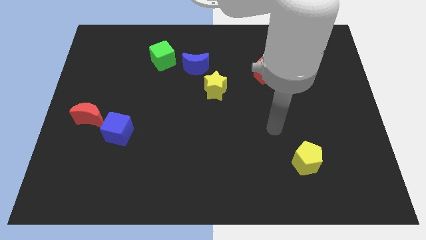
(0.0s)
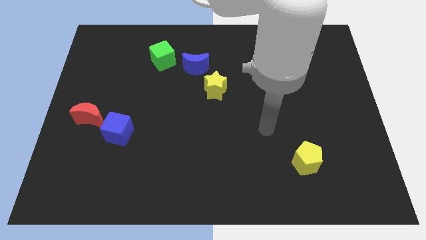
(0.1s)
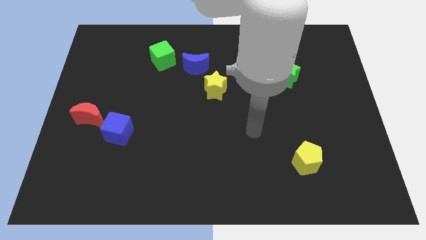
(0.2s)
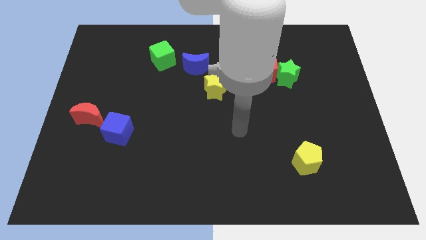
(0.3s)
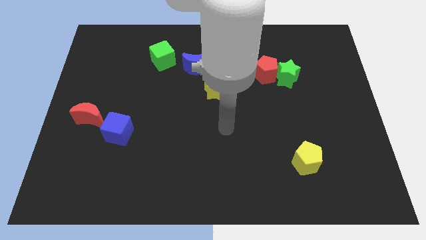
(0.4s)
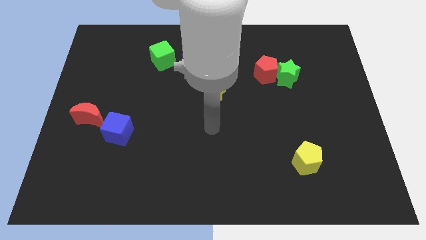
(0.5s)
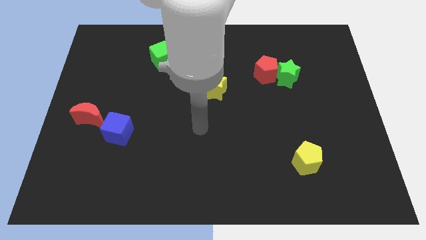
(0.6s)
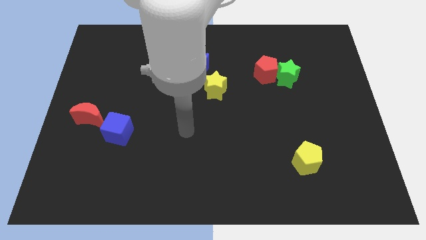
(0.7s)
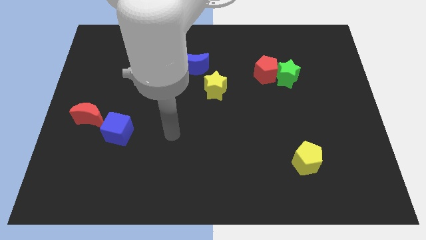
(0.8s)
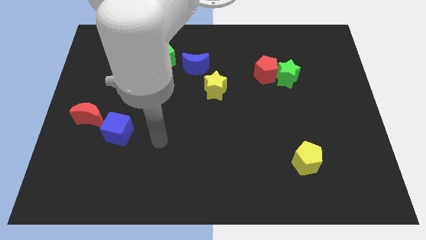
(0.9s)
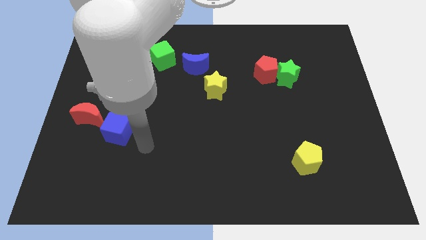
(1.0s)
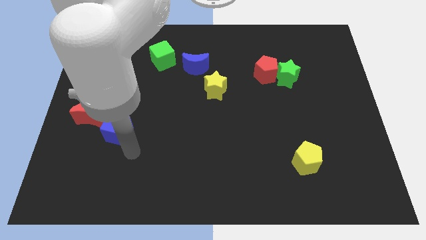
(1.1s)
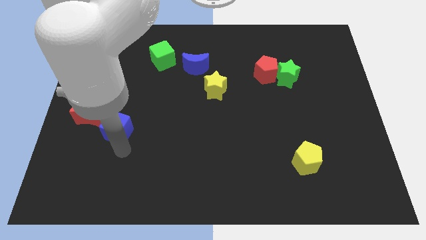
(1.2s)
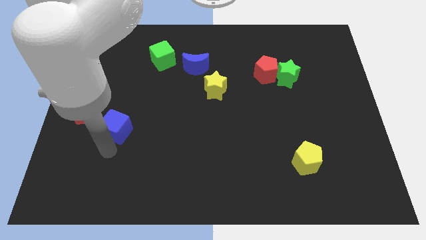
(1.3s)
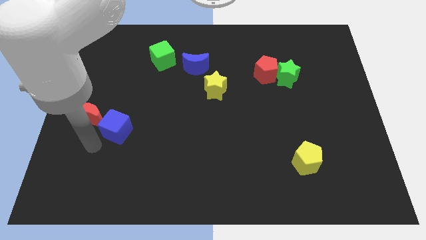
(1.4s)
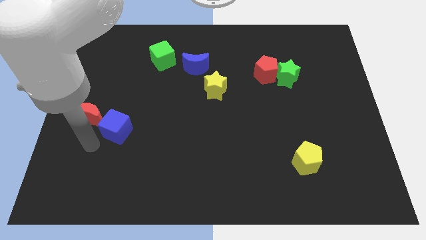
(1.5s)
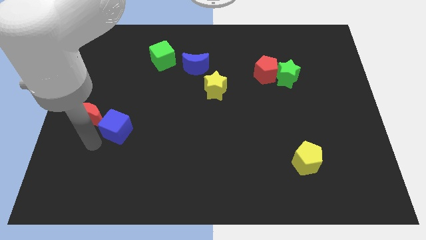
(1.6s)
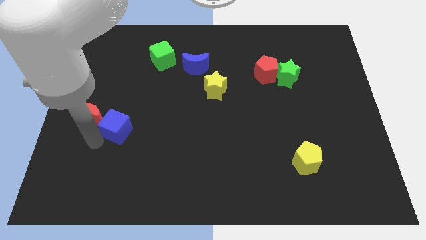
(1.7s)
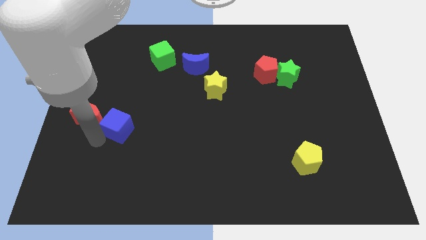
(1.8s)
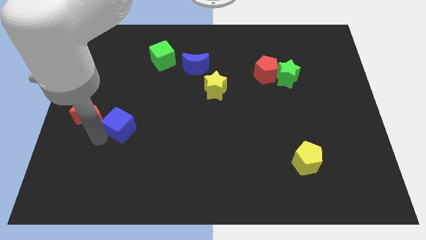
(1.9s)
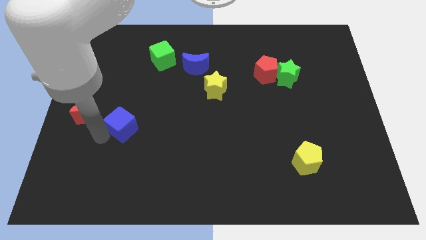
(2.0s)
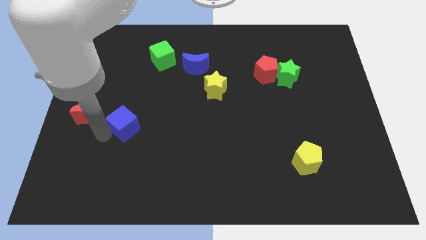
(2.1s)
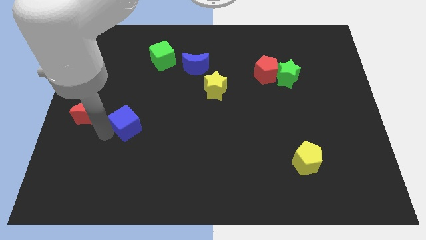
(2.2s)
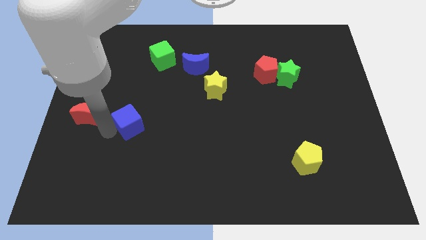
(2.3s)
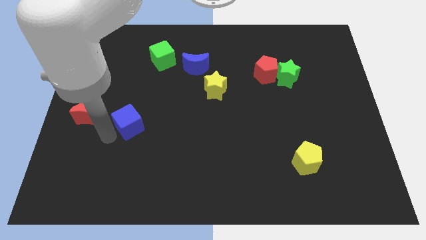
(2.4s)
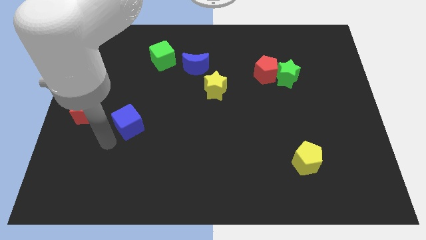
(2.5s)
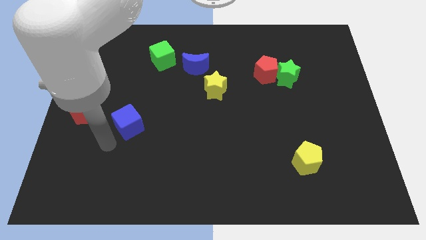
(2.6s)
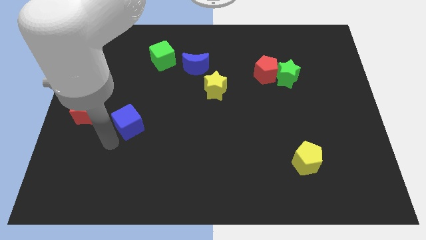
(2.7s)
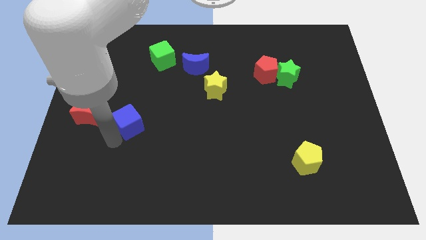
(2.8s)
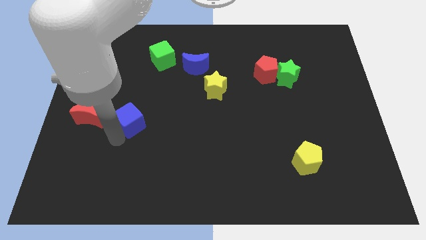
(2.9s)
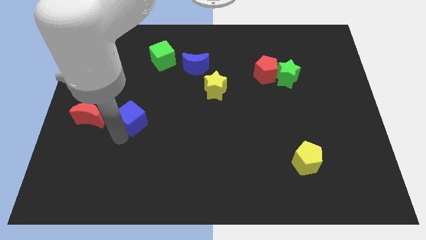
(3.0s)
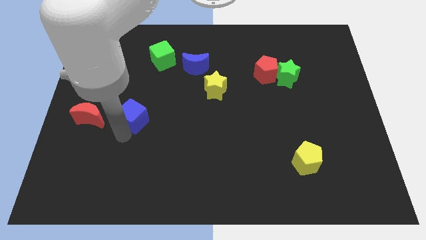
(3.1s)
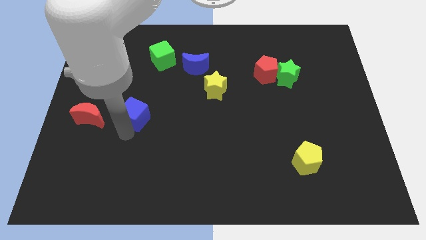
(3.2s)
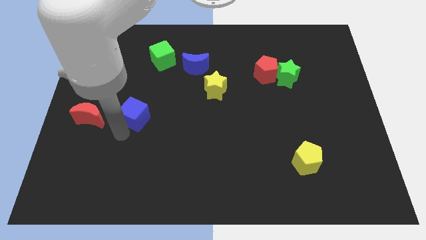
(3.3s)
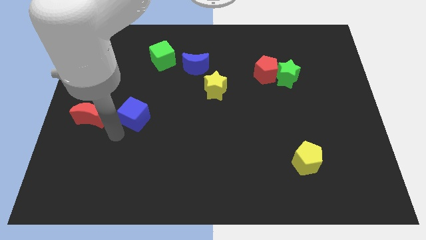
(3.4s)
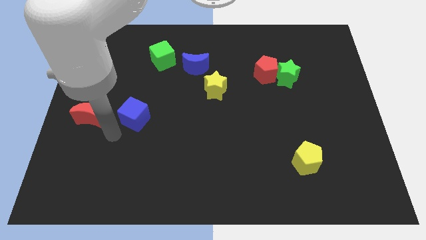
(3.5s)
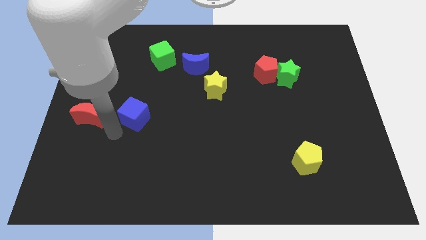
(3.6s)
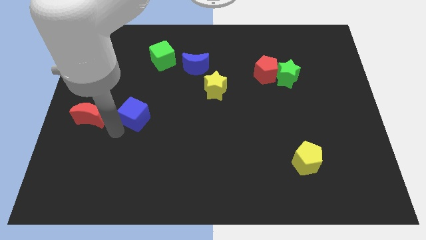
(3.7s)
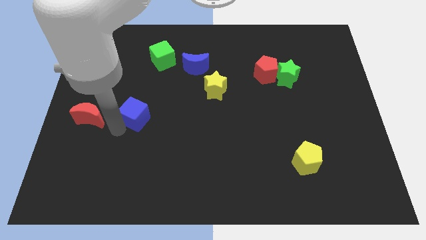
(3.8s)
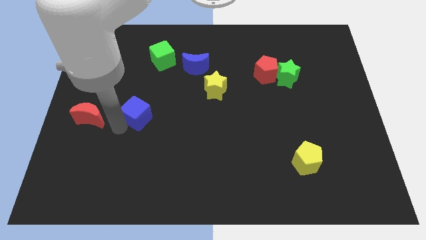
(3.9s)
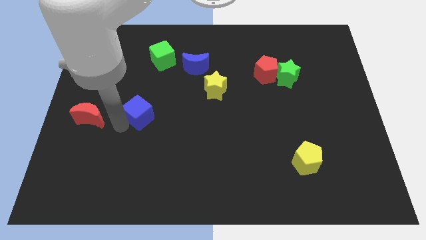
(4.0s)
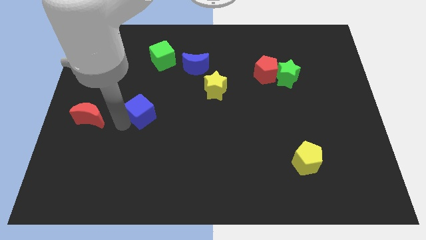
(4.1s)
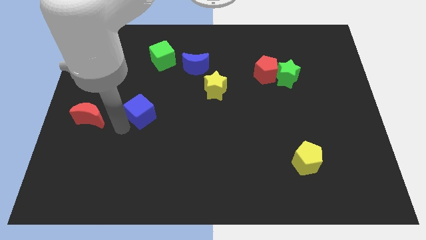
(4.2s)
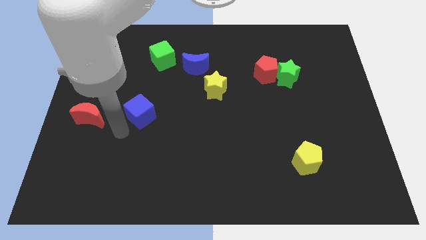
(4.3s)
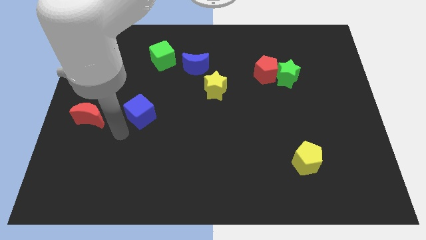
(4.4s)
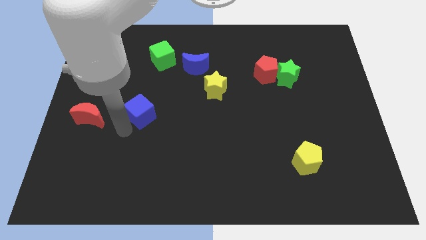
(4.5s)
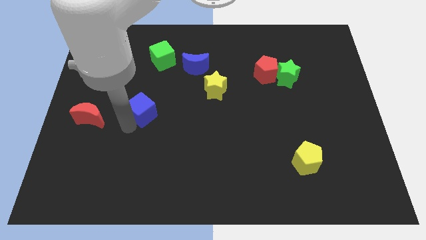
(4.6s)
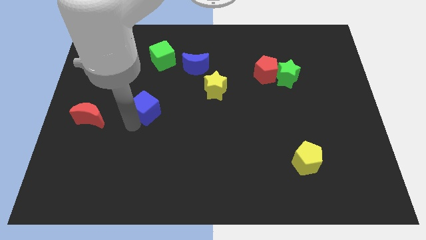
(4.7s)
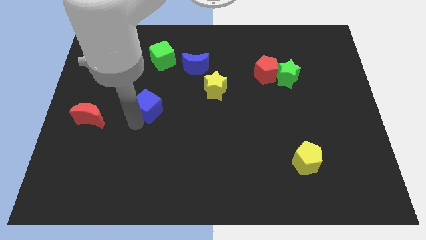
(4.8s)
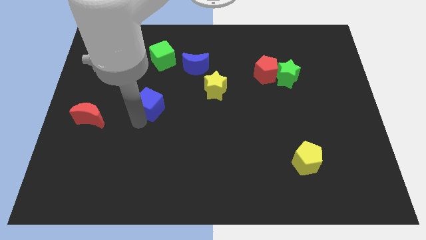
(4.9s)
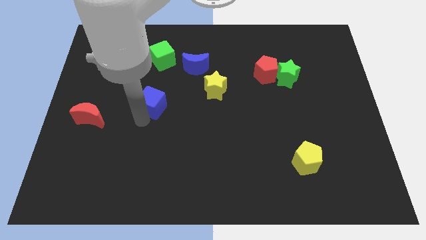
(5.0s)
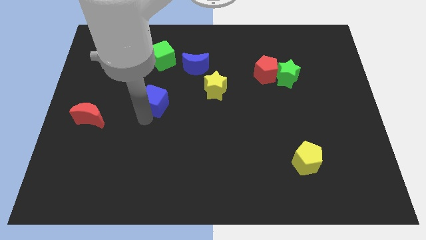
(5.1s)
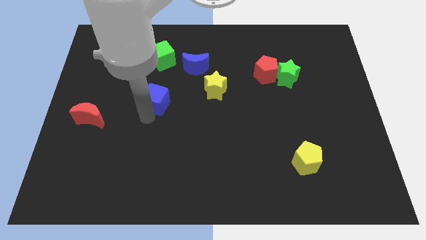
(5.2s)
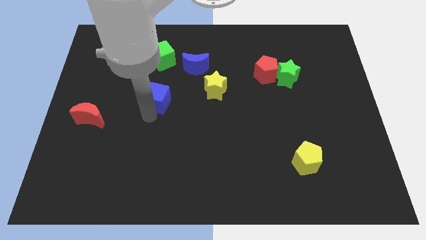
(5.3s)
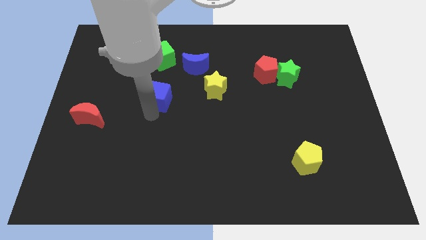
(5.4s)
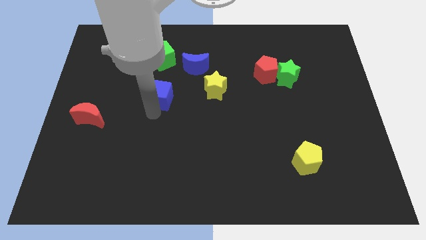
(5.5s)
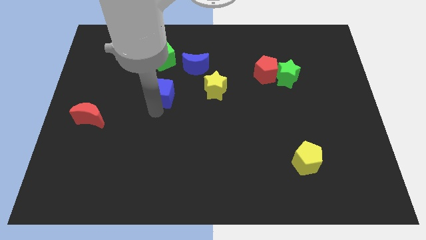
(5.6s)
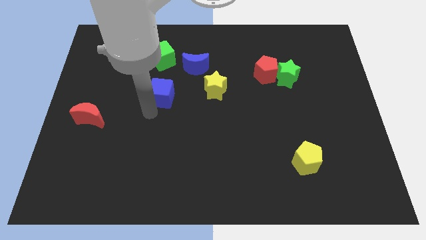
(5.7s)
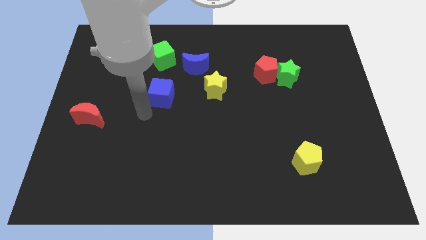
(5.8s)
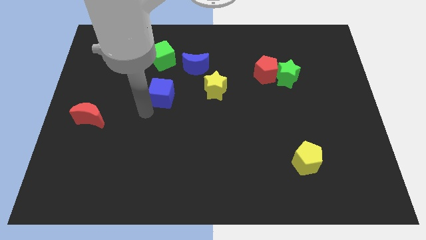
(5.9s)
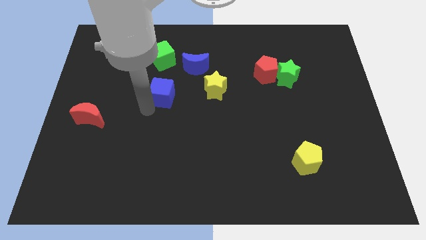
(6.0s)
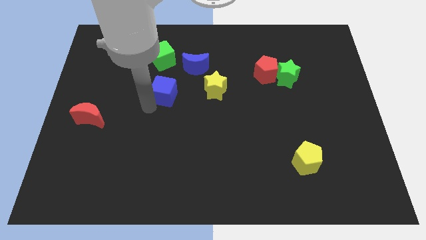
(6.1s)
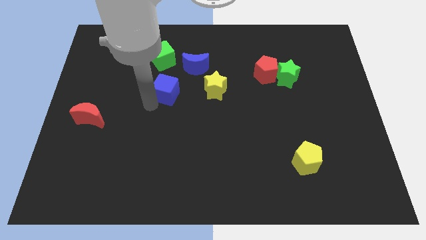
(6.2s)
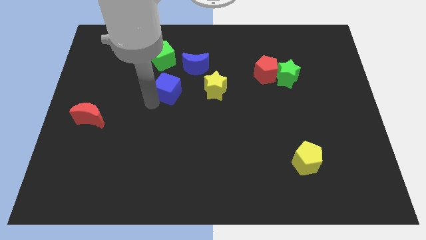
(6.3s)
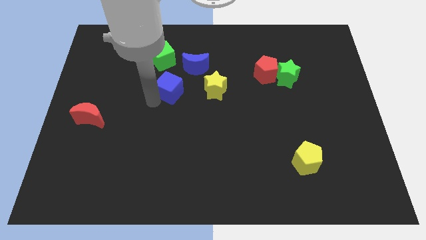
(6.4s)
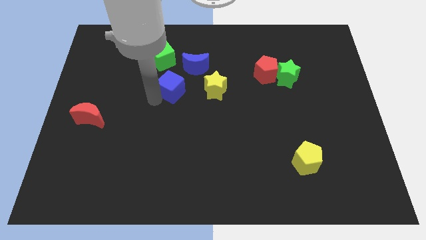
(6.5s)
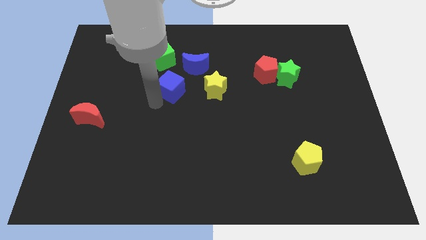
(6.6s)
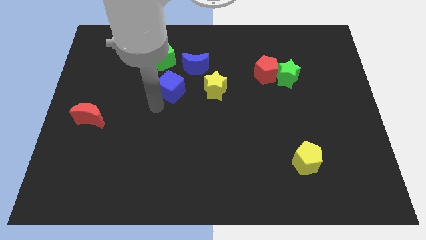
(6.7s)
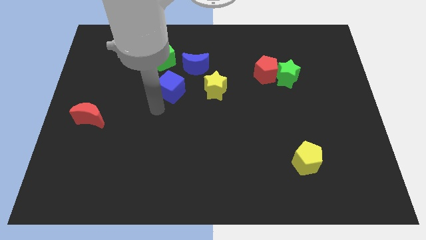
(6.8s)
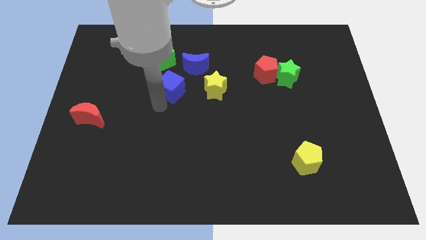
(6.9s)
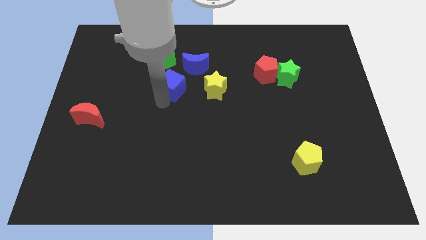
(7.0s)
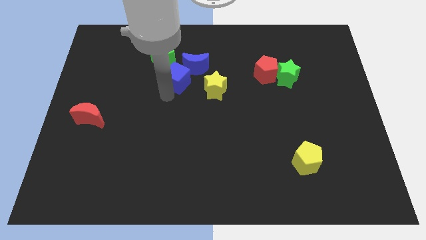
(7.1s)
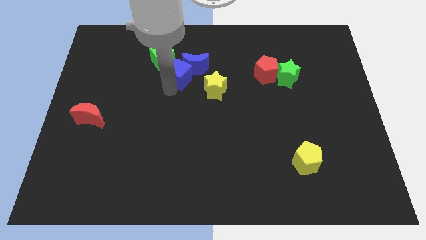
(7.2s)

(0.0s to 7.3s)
move the blue cube next to the blue moon

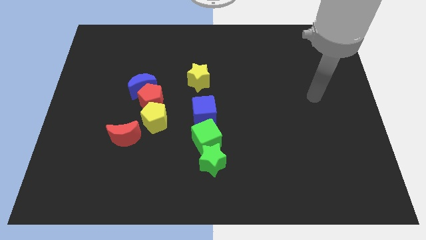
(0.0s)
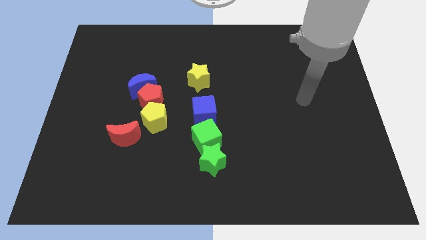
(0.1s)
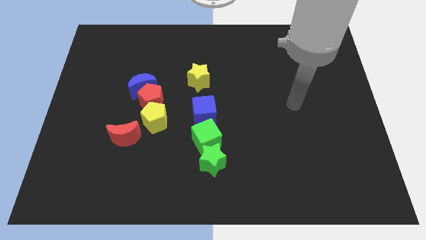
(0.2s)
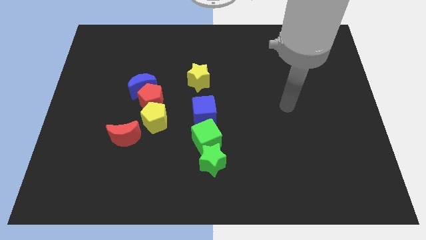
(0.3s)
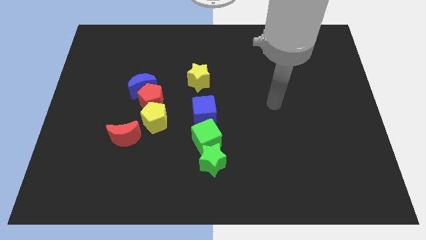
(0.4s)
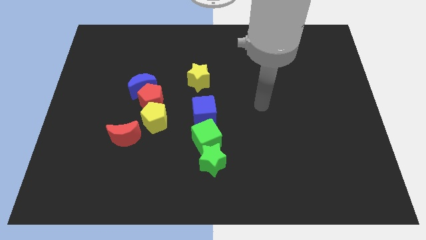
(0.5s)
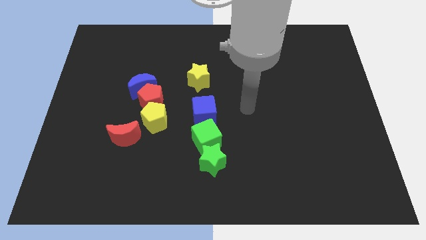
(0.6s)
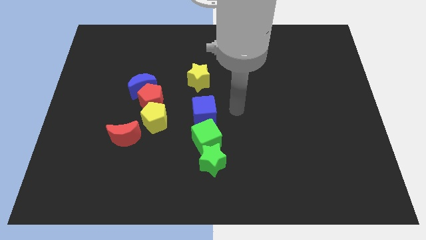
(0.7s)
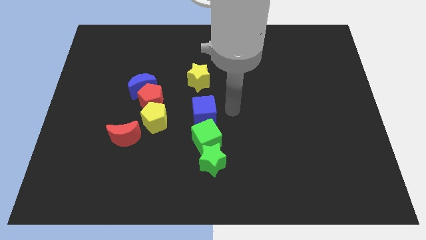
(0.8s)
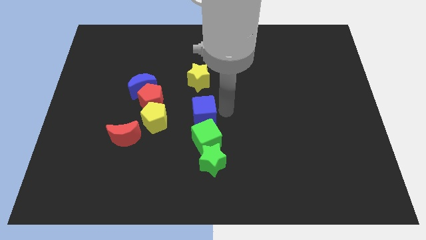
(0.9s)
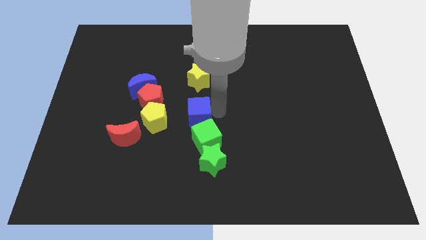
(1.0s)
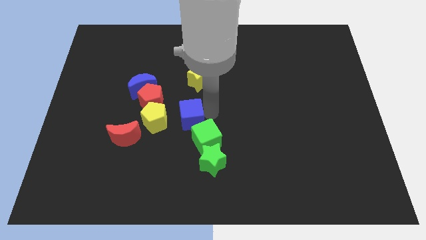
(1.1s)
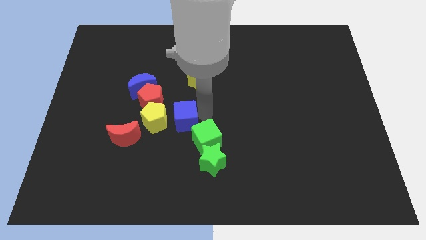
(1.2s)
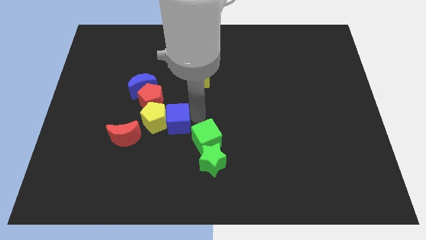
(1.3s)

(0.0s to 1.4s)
slide the blue cube towards the yellow pentagon
